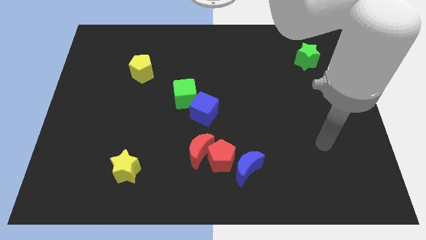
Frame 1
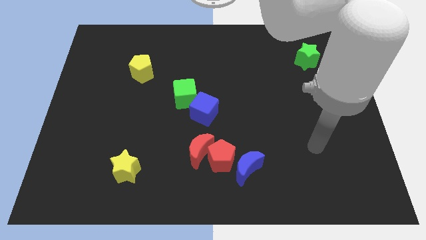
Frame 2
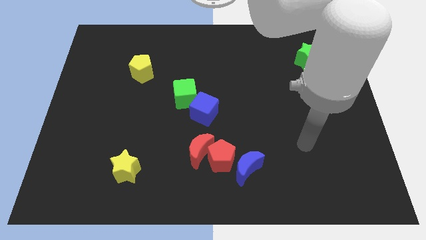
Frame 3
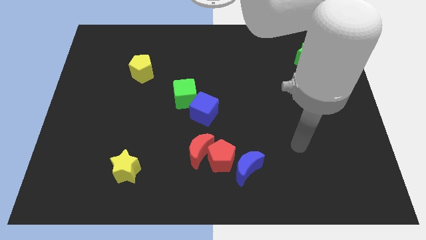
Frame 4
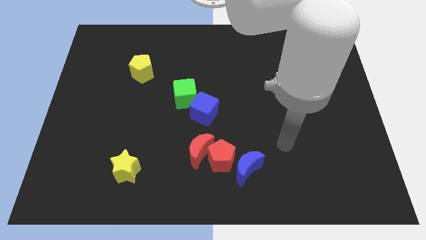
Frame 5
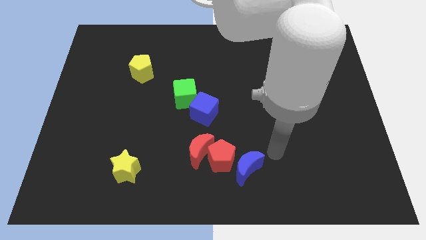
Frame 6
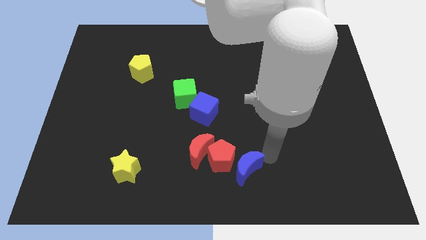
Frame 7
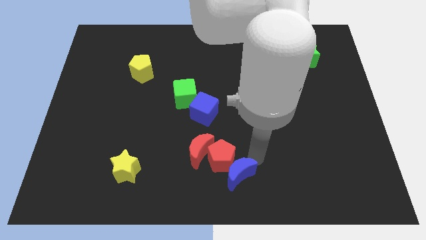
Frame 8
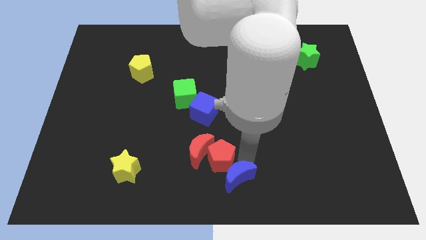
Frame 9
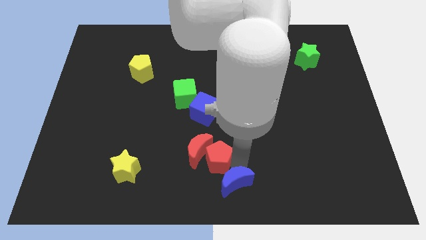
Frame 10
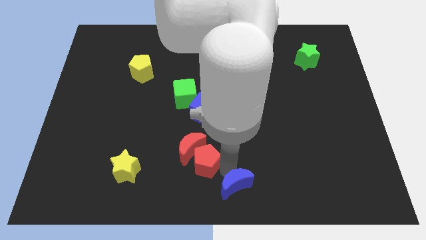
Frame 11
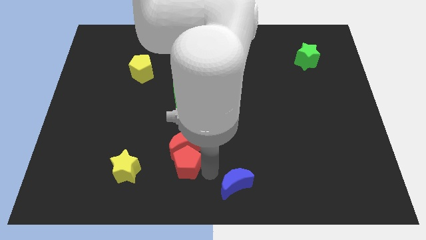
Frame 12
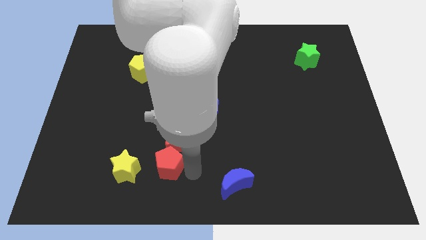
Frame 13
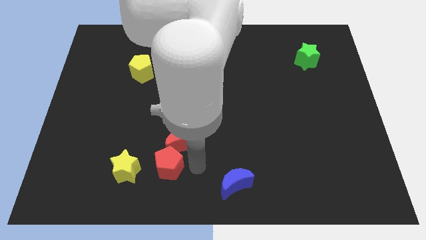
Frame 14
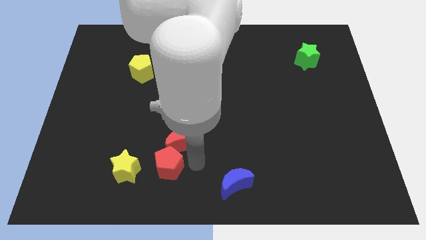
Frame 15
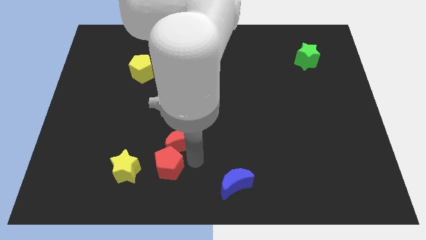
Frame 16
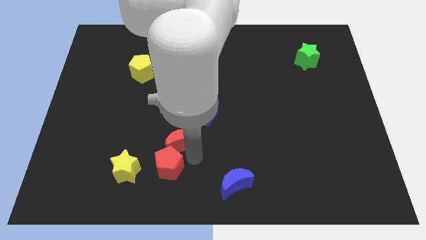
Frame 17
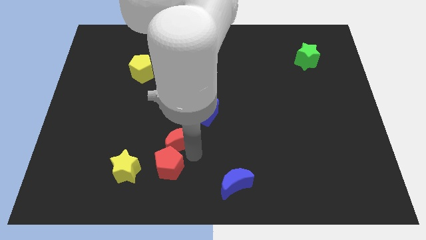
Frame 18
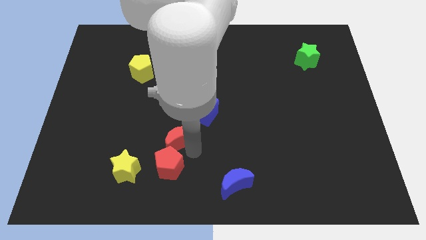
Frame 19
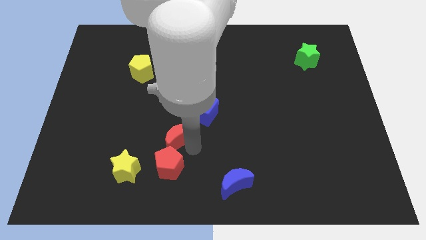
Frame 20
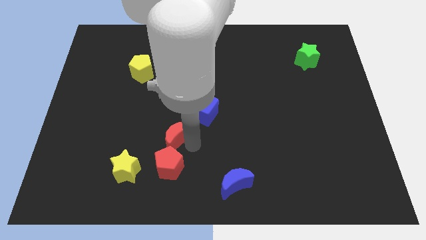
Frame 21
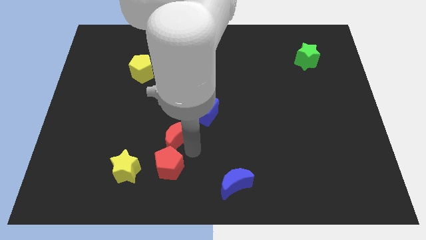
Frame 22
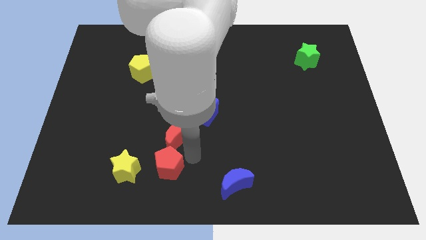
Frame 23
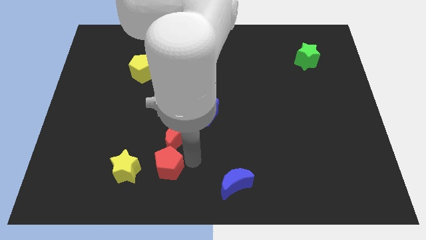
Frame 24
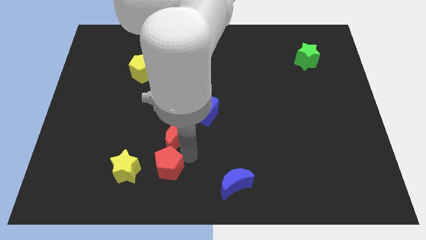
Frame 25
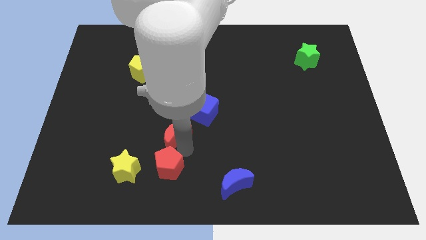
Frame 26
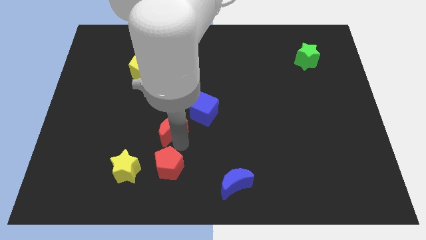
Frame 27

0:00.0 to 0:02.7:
move the red moon diagonally upwards and left slightly

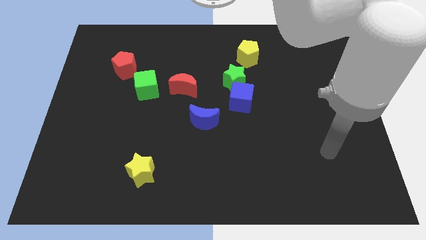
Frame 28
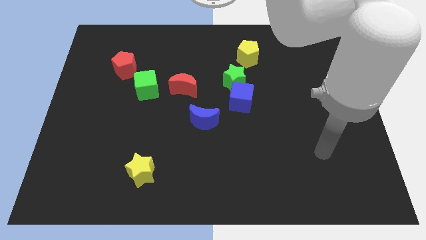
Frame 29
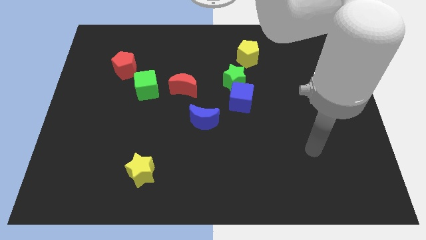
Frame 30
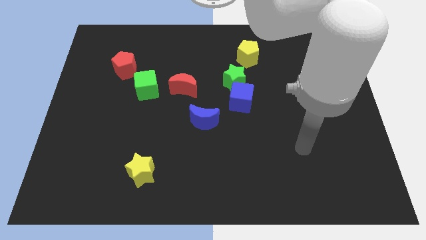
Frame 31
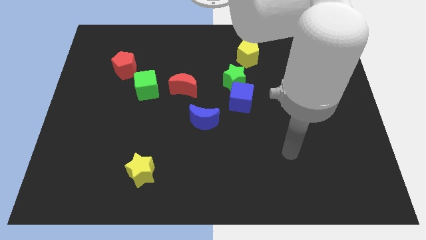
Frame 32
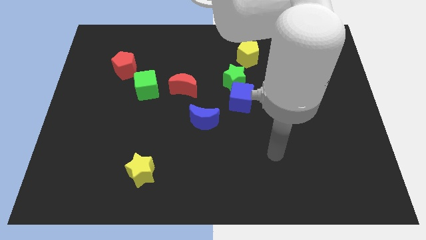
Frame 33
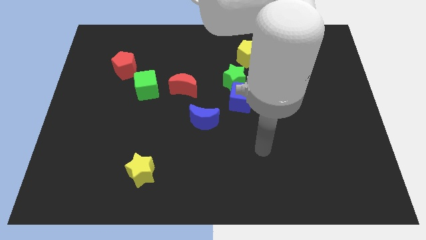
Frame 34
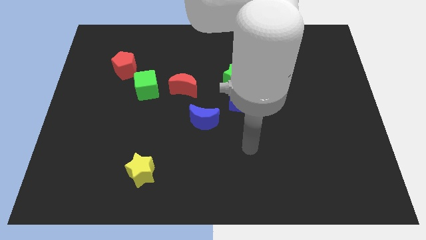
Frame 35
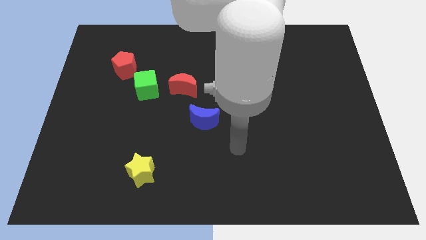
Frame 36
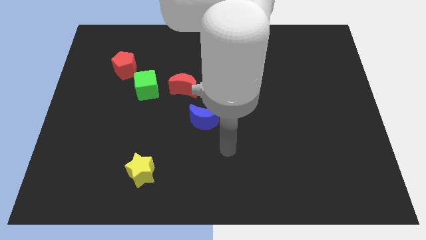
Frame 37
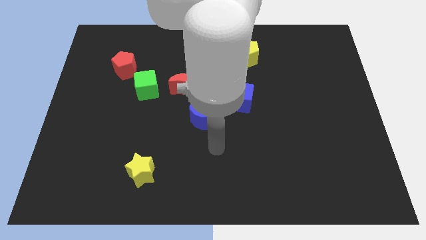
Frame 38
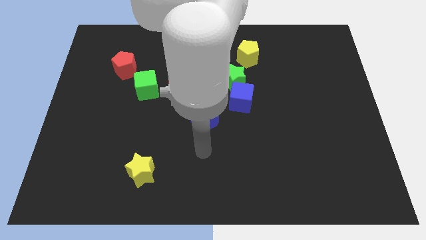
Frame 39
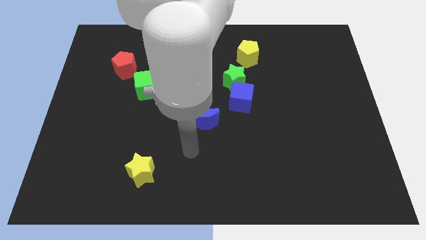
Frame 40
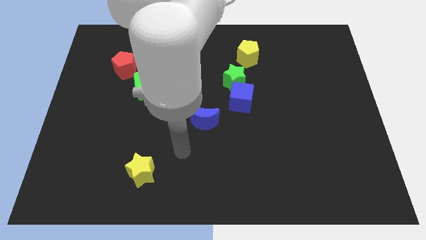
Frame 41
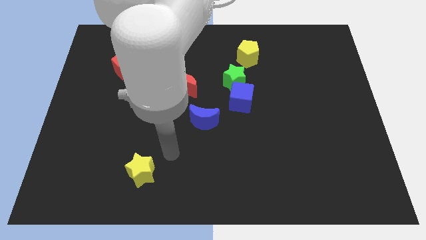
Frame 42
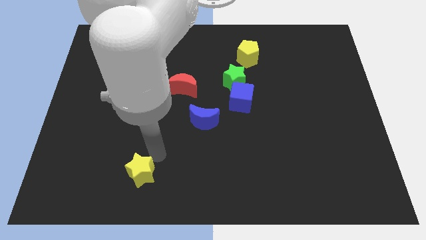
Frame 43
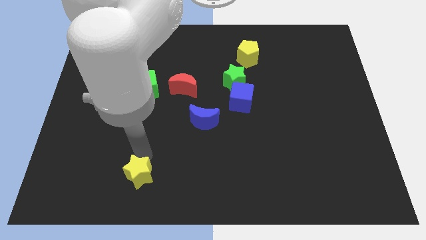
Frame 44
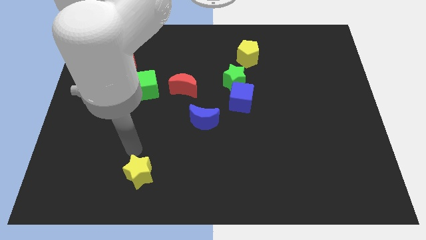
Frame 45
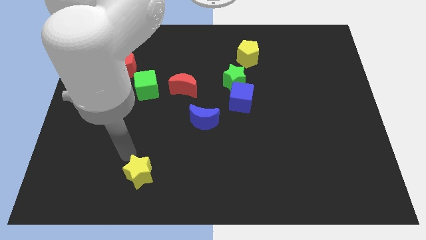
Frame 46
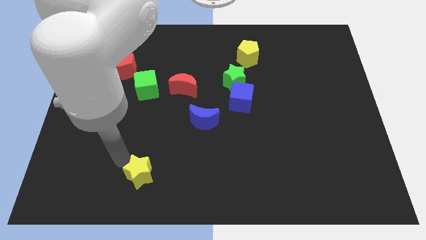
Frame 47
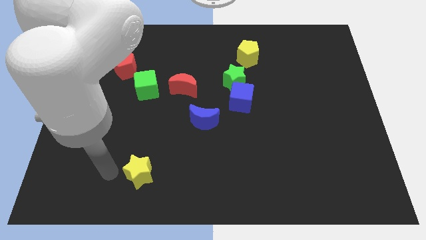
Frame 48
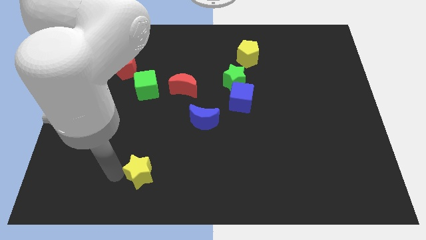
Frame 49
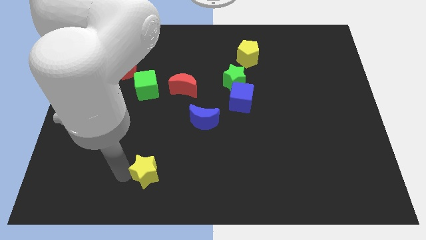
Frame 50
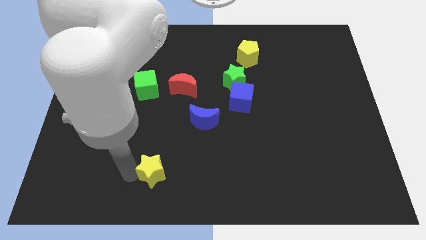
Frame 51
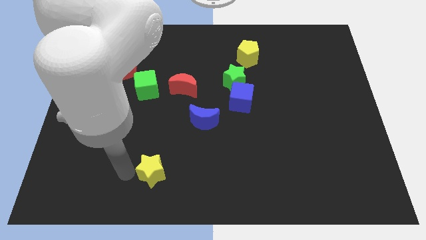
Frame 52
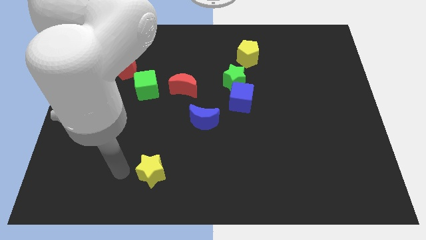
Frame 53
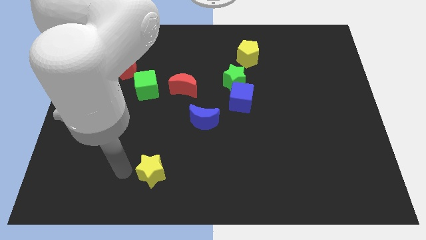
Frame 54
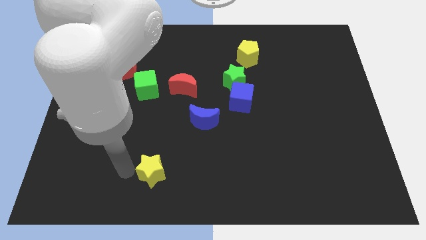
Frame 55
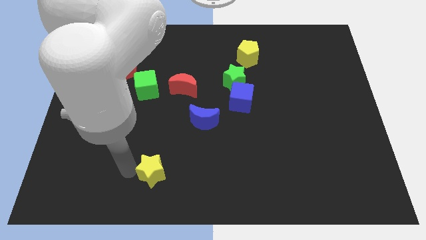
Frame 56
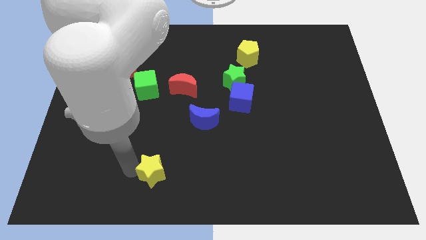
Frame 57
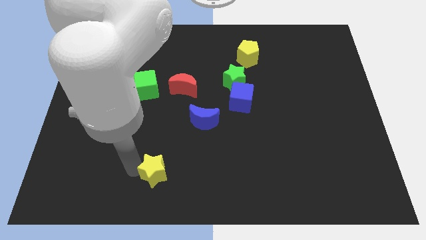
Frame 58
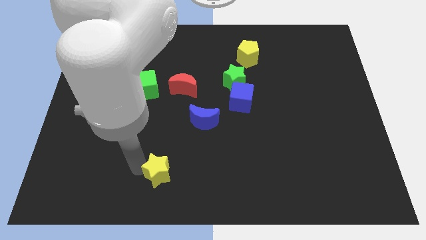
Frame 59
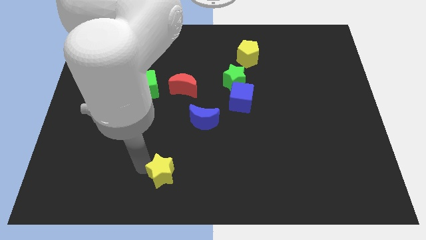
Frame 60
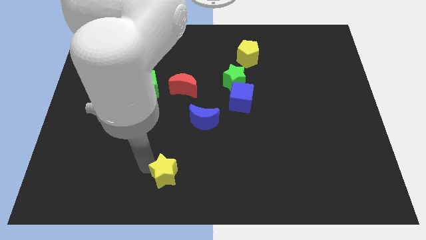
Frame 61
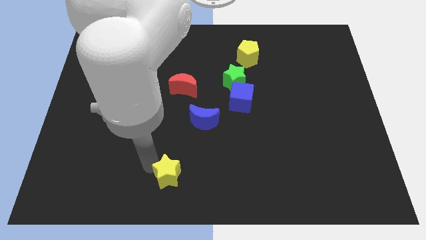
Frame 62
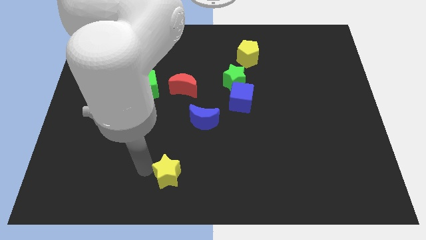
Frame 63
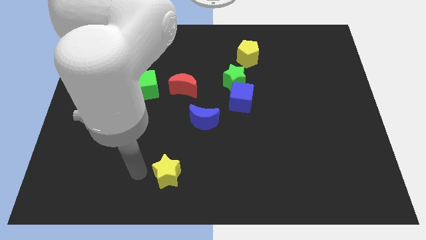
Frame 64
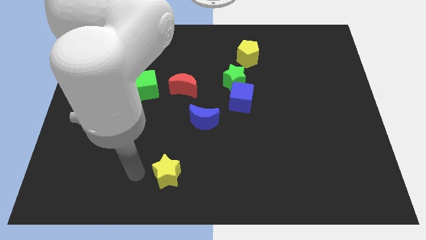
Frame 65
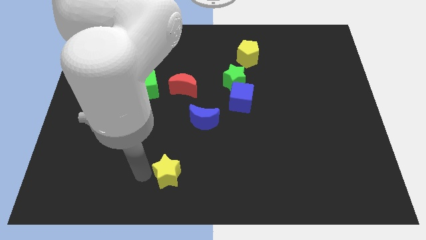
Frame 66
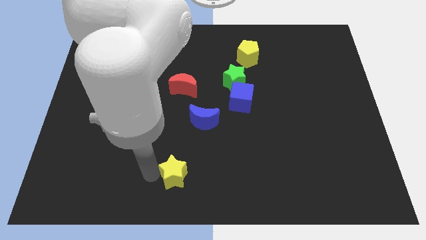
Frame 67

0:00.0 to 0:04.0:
move the yellow star right slightly

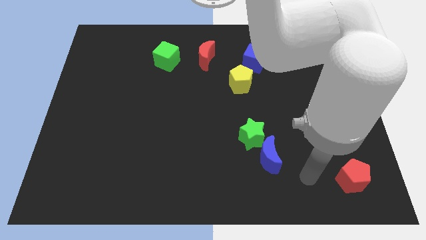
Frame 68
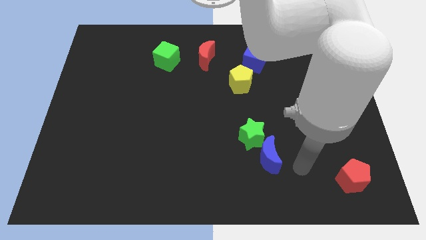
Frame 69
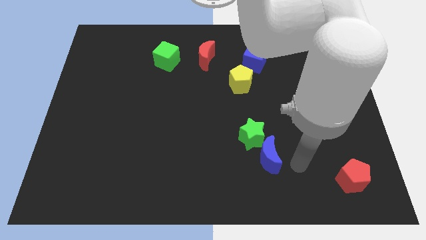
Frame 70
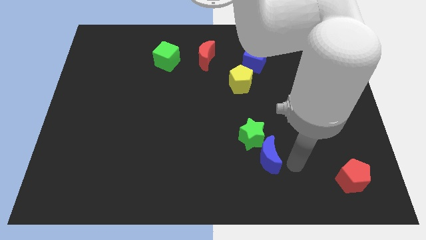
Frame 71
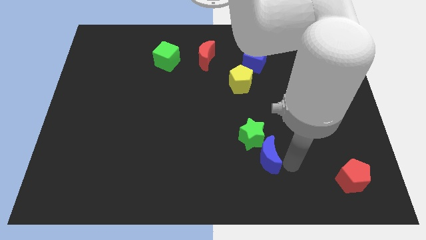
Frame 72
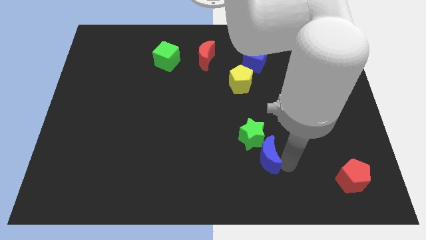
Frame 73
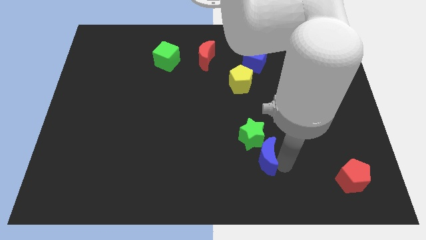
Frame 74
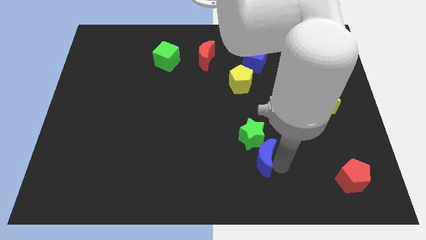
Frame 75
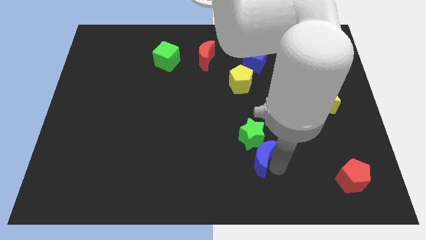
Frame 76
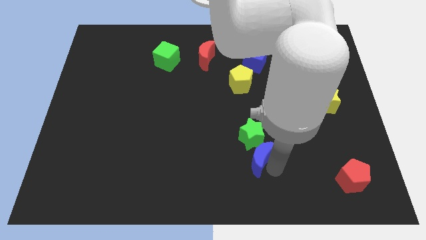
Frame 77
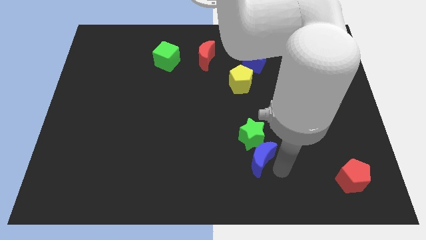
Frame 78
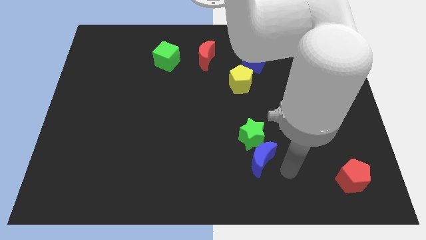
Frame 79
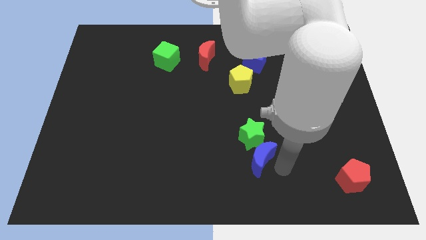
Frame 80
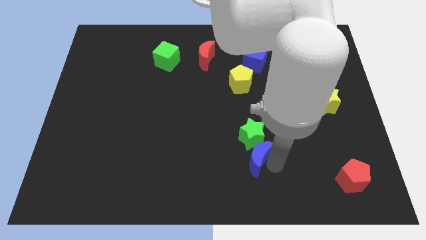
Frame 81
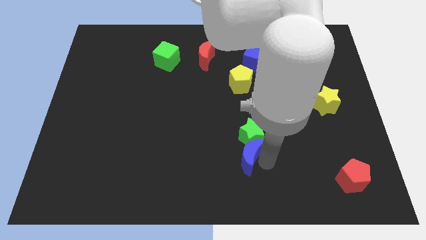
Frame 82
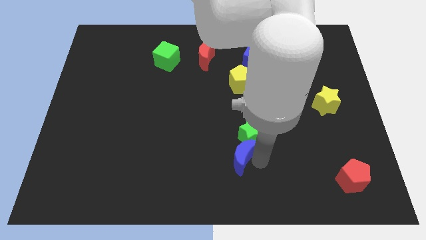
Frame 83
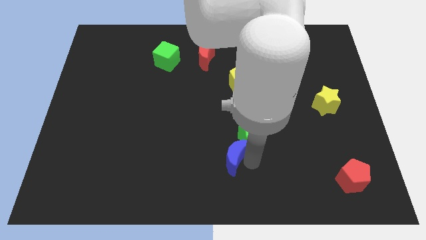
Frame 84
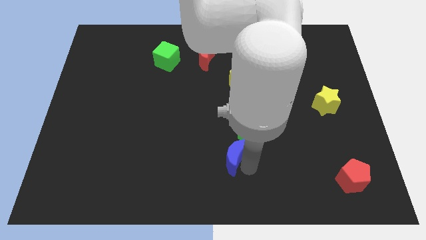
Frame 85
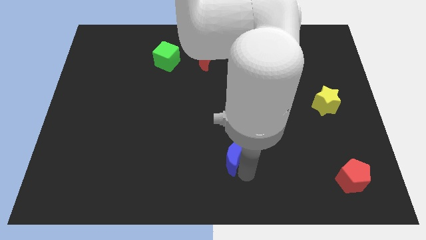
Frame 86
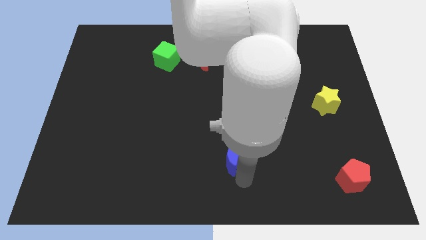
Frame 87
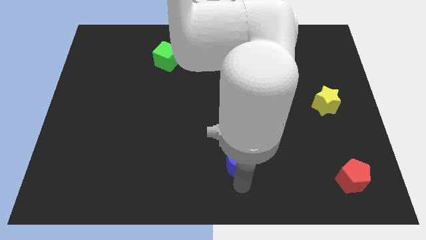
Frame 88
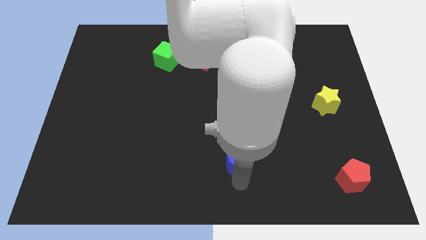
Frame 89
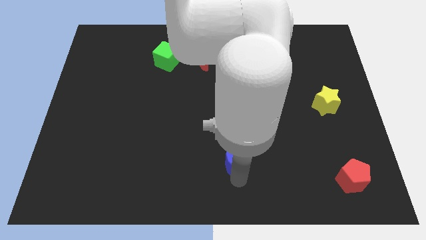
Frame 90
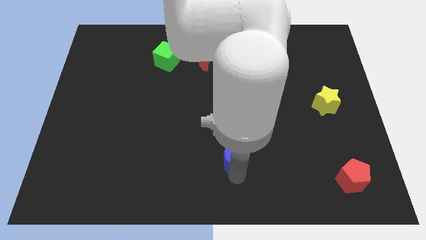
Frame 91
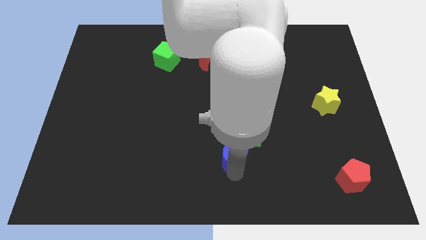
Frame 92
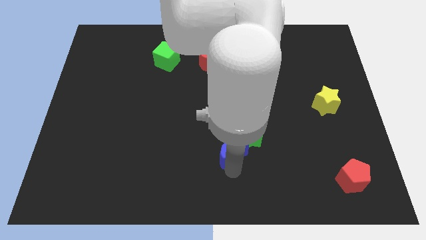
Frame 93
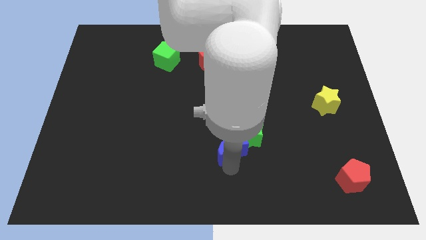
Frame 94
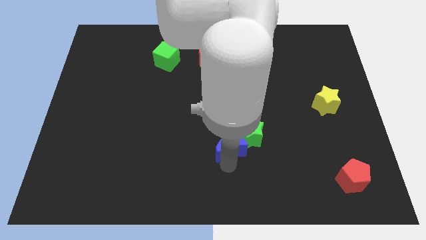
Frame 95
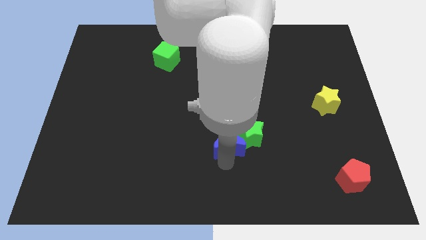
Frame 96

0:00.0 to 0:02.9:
slightly move the blue moon upwards and to the left
